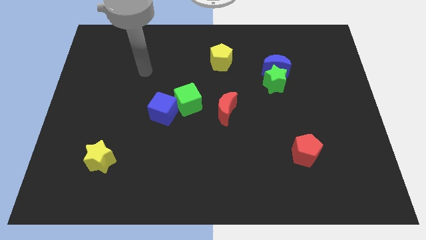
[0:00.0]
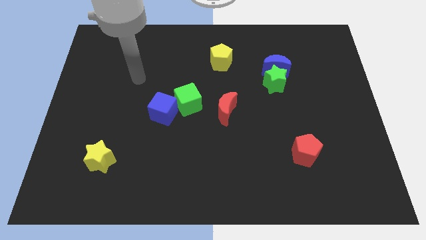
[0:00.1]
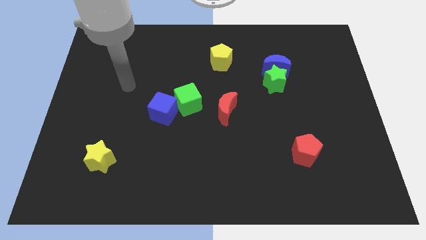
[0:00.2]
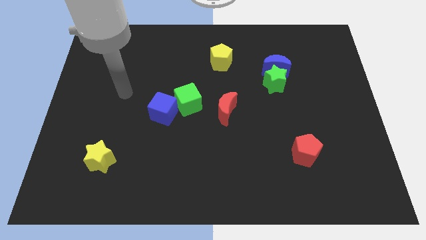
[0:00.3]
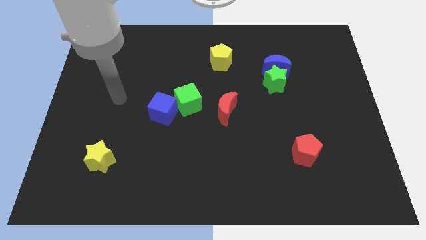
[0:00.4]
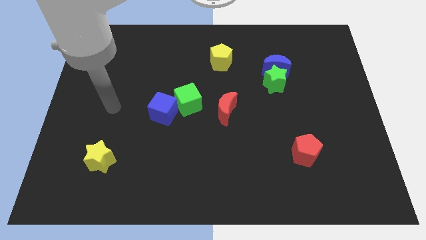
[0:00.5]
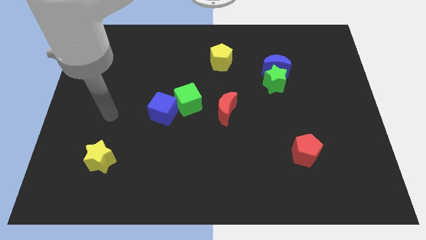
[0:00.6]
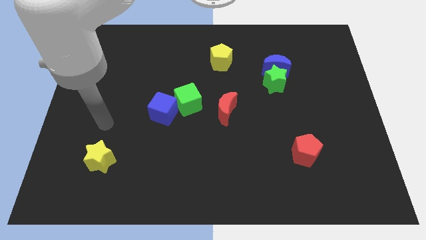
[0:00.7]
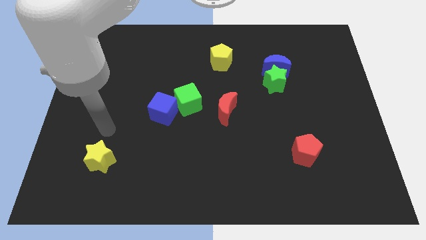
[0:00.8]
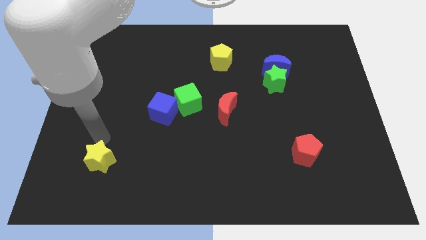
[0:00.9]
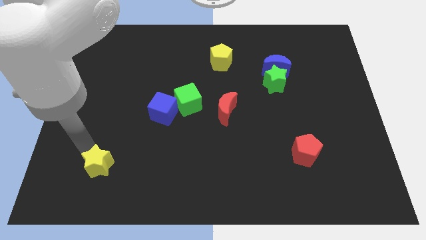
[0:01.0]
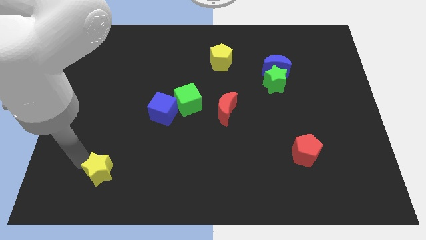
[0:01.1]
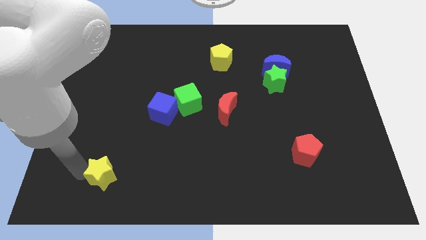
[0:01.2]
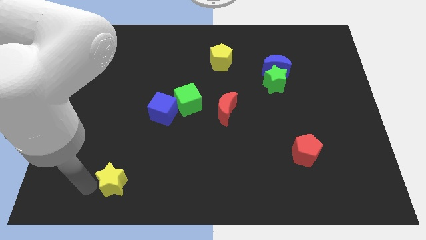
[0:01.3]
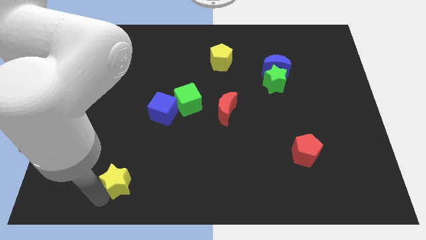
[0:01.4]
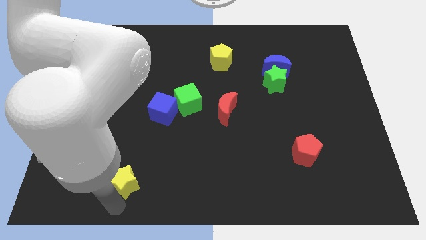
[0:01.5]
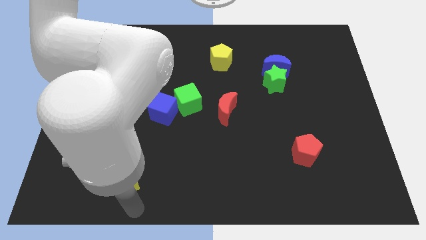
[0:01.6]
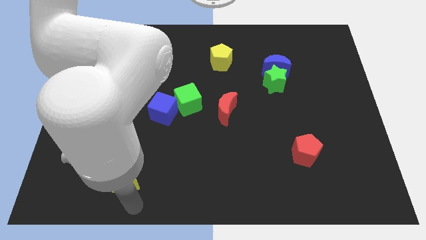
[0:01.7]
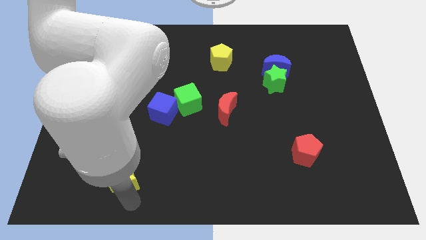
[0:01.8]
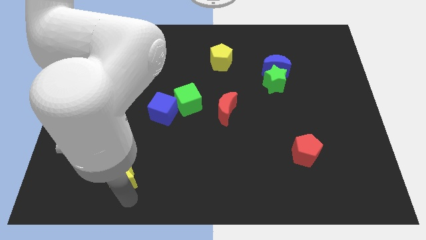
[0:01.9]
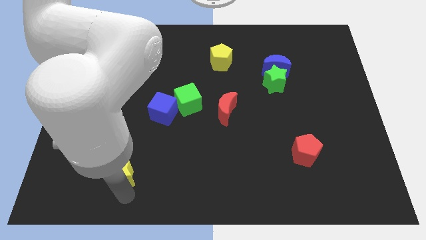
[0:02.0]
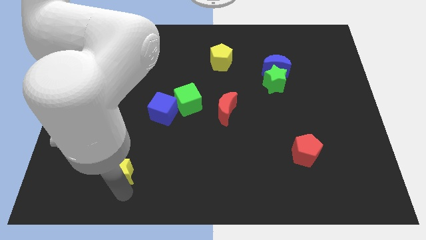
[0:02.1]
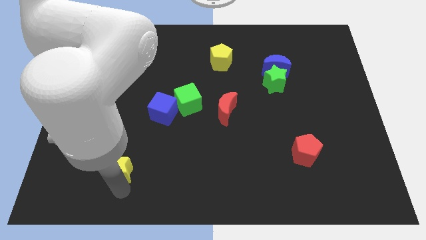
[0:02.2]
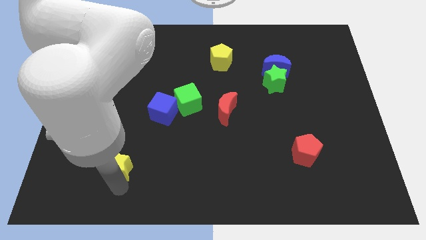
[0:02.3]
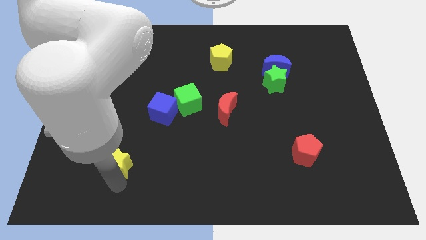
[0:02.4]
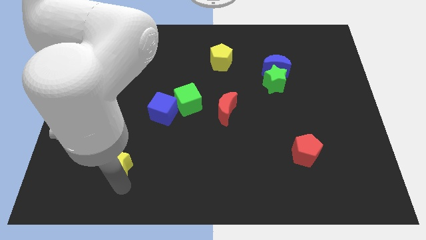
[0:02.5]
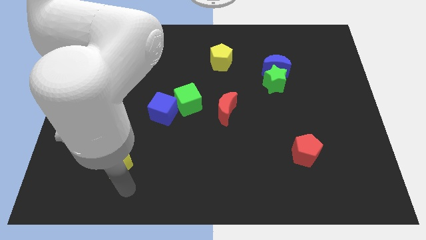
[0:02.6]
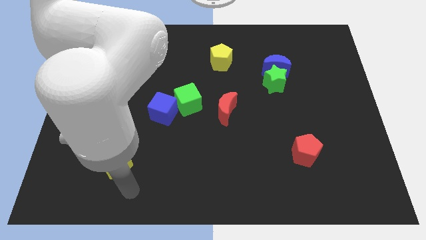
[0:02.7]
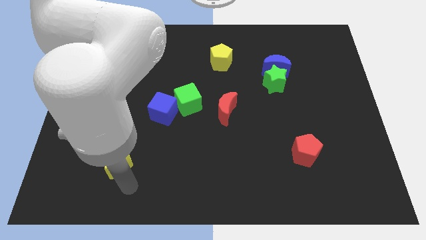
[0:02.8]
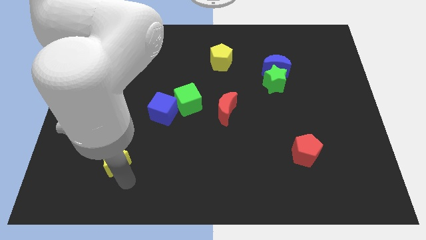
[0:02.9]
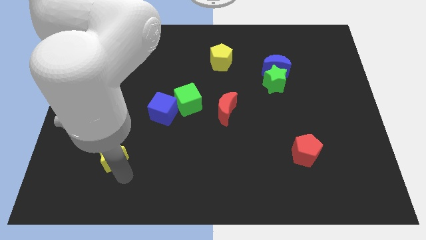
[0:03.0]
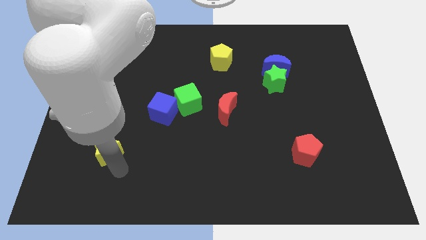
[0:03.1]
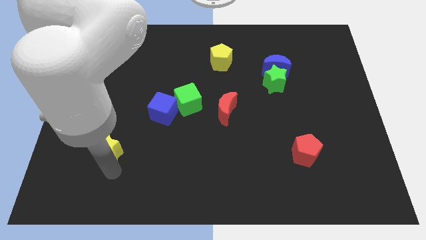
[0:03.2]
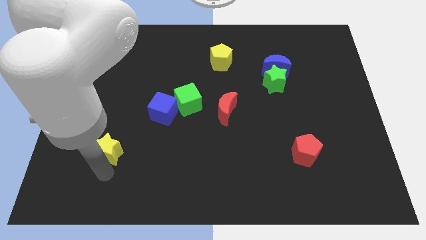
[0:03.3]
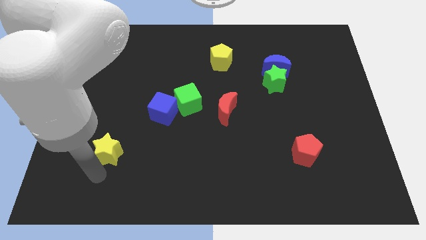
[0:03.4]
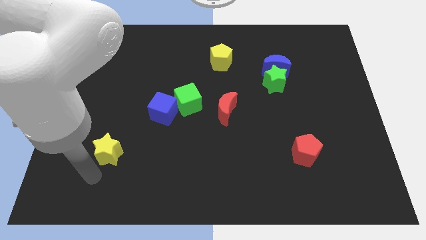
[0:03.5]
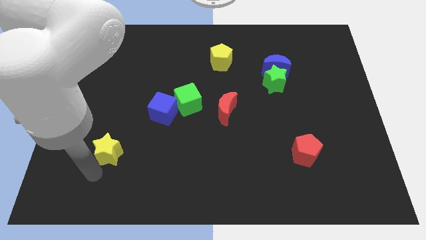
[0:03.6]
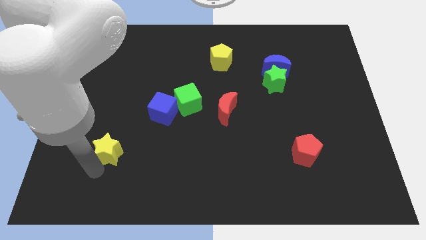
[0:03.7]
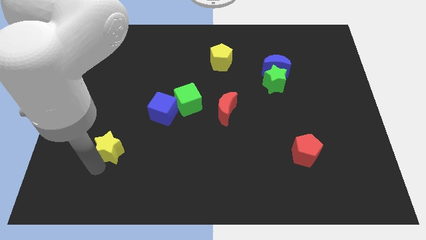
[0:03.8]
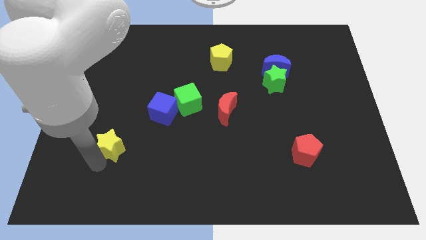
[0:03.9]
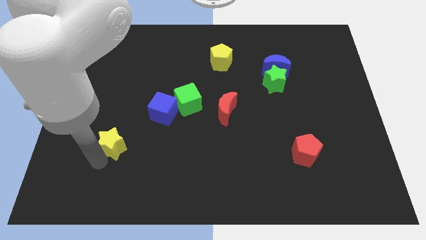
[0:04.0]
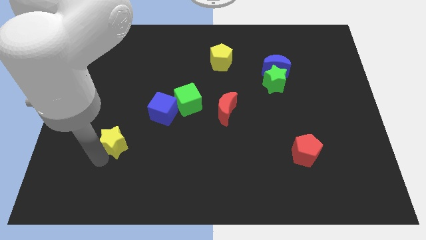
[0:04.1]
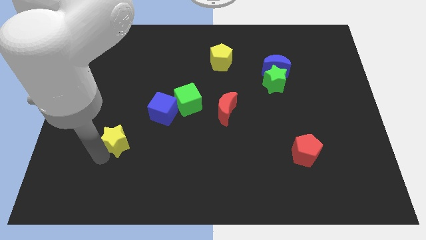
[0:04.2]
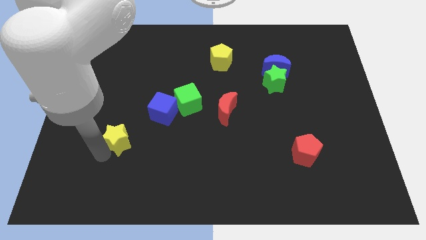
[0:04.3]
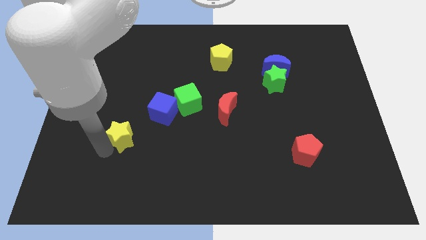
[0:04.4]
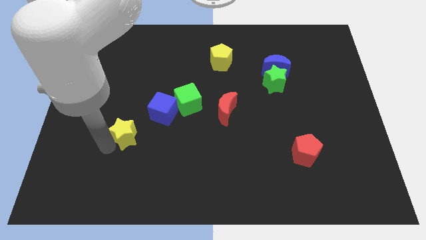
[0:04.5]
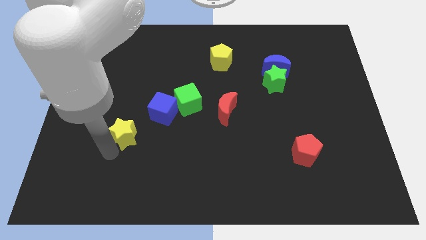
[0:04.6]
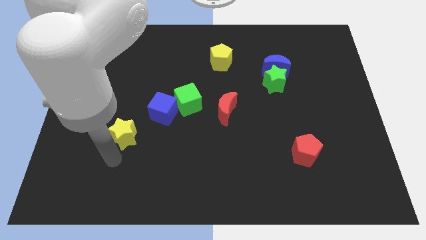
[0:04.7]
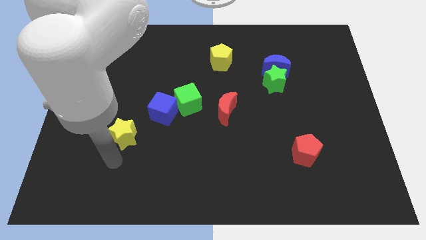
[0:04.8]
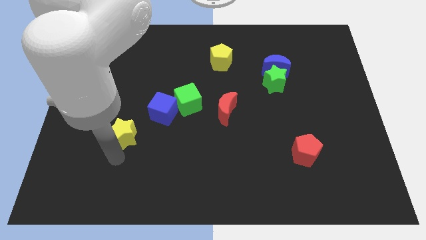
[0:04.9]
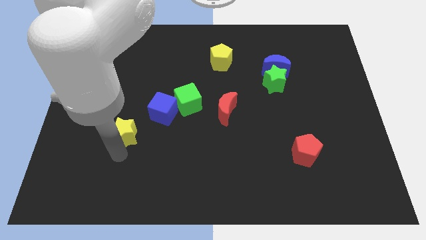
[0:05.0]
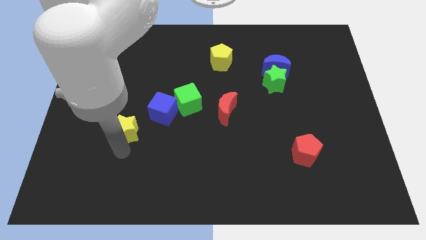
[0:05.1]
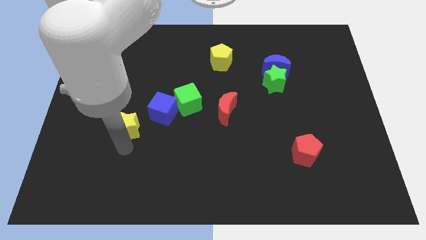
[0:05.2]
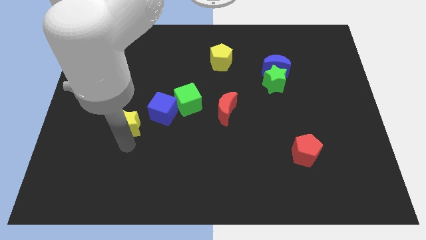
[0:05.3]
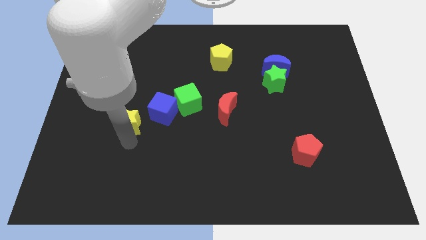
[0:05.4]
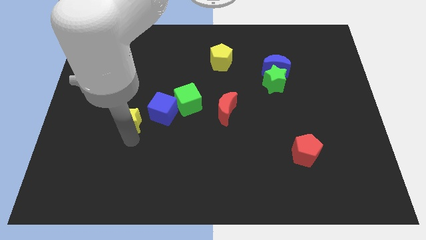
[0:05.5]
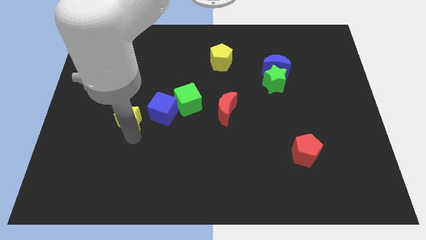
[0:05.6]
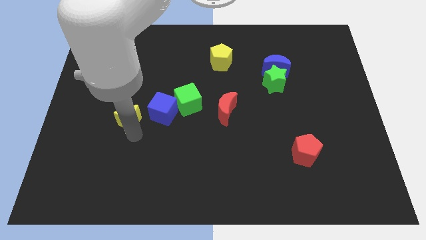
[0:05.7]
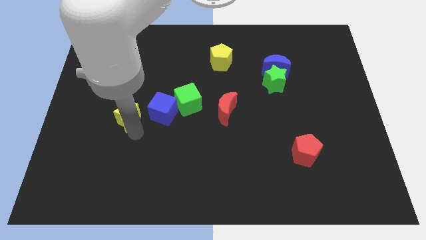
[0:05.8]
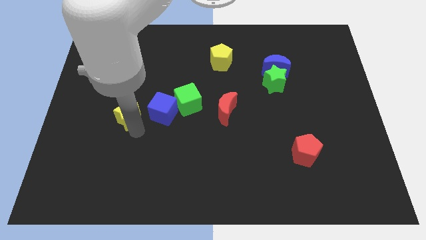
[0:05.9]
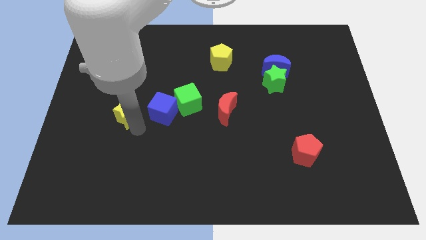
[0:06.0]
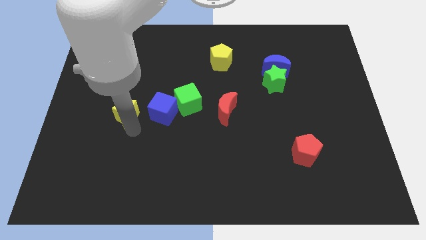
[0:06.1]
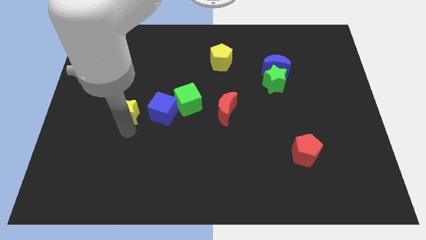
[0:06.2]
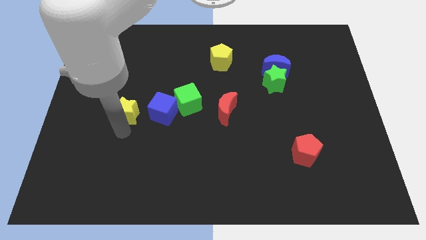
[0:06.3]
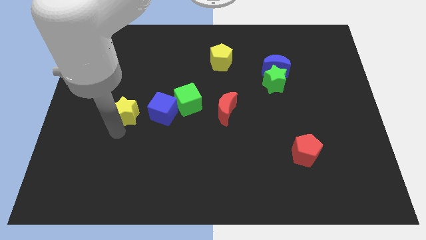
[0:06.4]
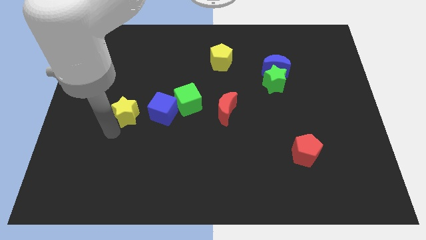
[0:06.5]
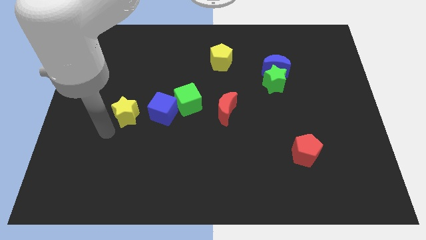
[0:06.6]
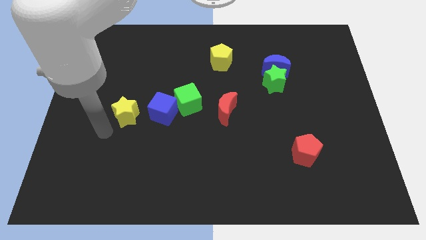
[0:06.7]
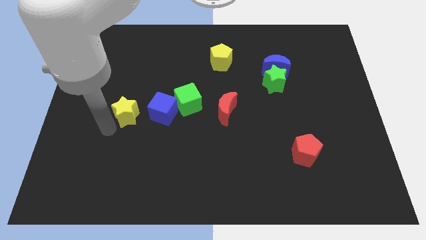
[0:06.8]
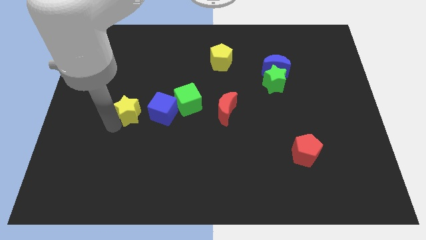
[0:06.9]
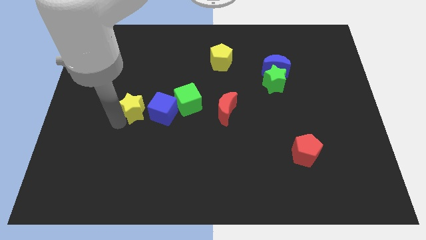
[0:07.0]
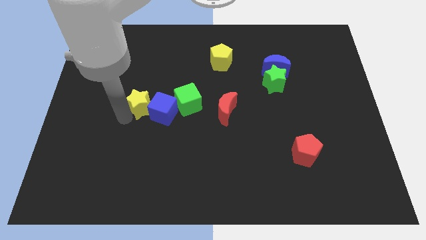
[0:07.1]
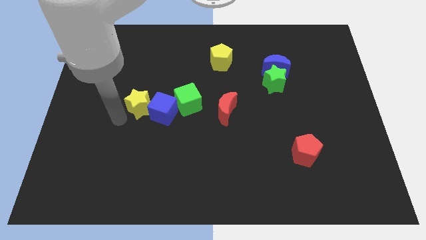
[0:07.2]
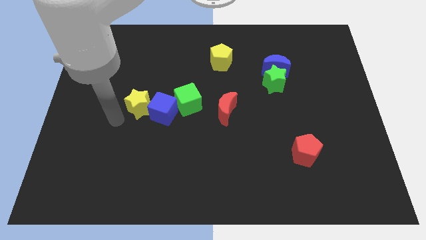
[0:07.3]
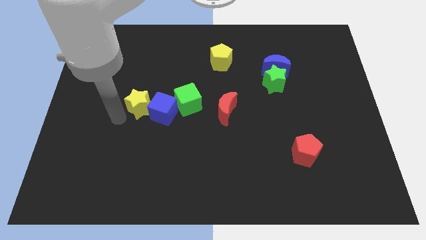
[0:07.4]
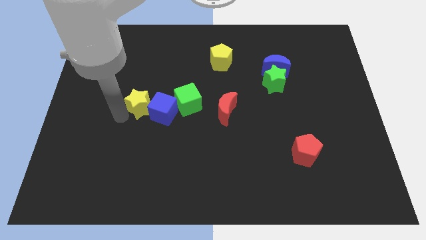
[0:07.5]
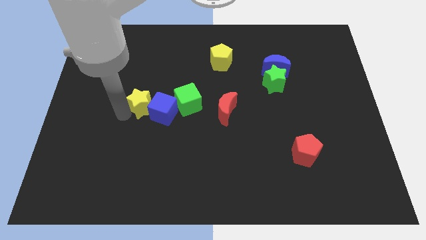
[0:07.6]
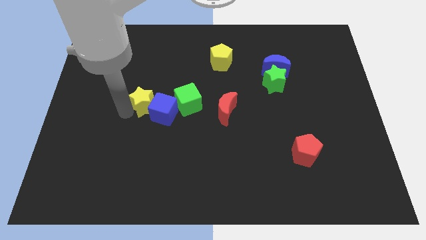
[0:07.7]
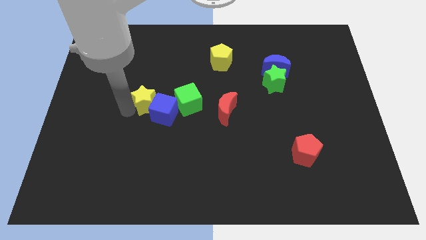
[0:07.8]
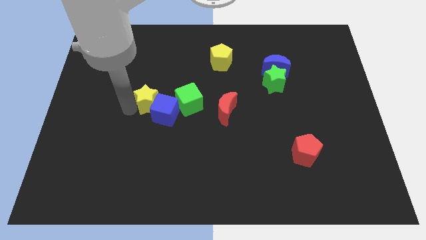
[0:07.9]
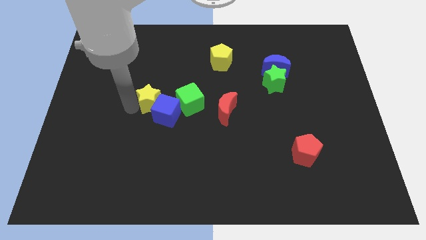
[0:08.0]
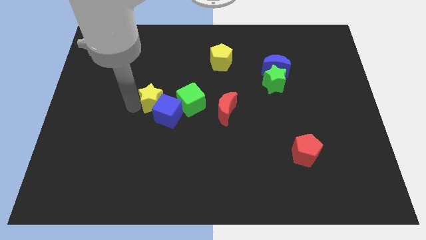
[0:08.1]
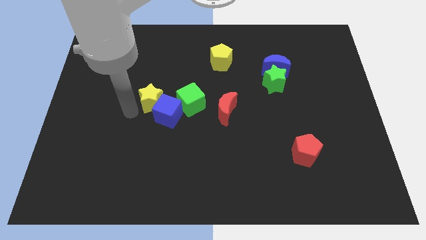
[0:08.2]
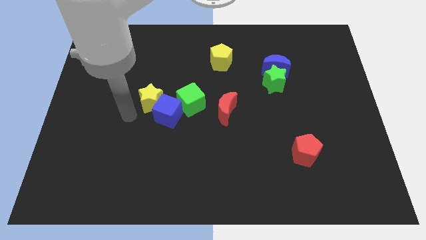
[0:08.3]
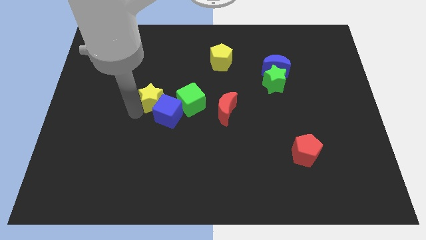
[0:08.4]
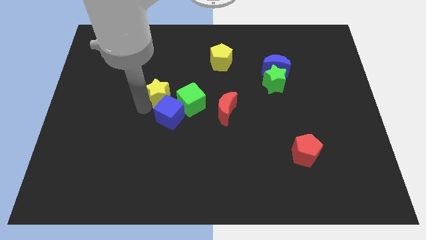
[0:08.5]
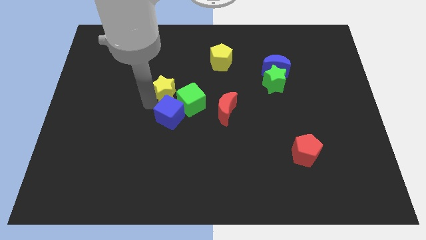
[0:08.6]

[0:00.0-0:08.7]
slide the yellow star upwards and then to the right
